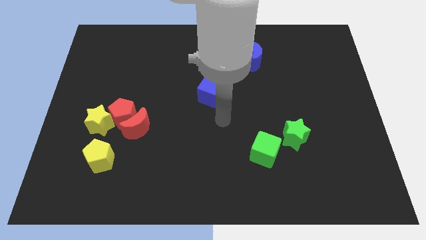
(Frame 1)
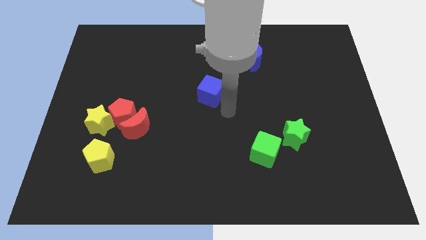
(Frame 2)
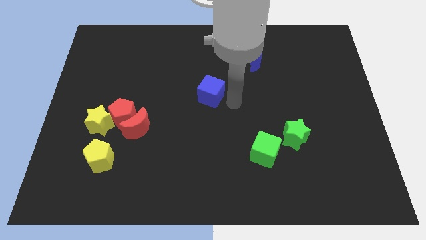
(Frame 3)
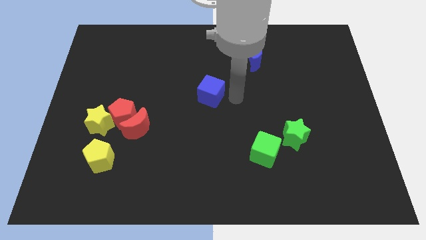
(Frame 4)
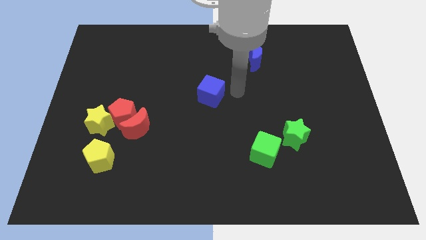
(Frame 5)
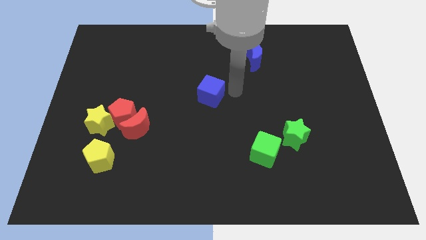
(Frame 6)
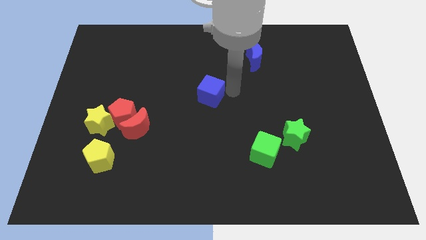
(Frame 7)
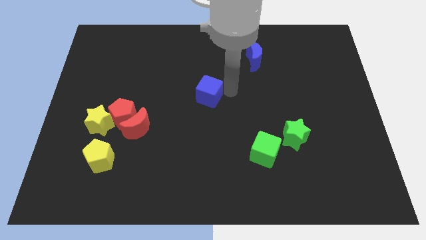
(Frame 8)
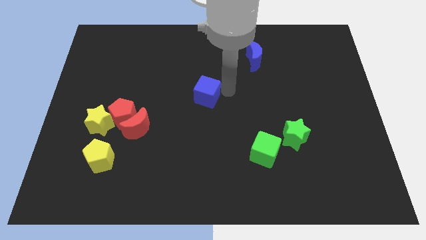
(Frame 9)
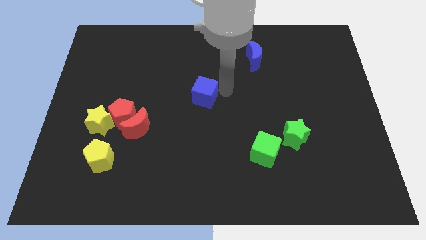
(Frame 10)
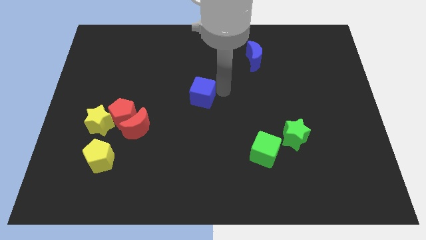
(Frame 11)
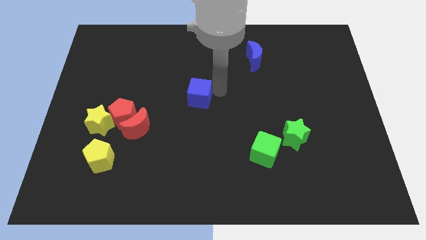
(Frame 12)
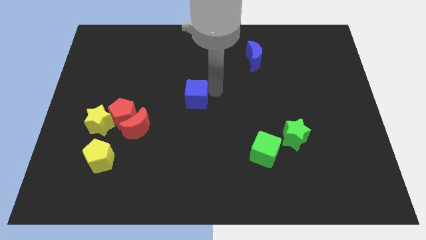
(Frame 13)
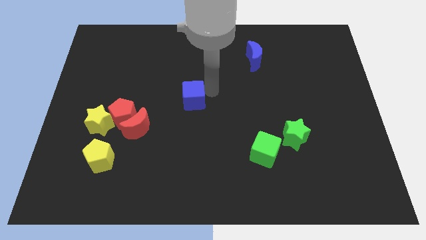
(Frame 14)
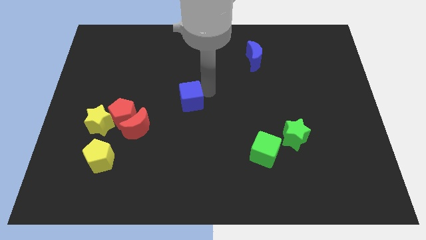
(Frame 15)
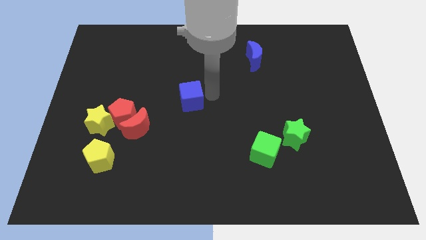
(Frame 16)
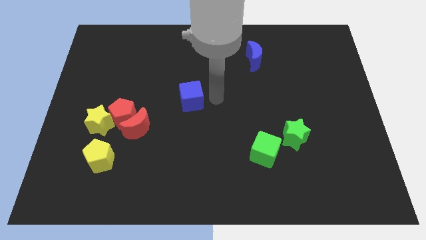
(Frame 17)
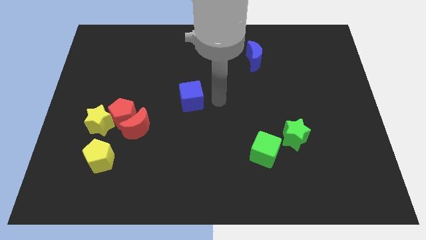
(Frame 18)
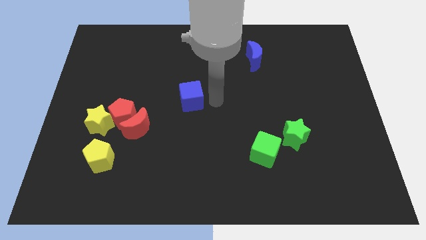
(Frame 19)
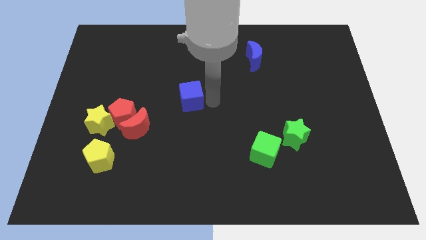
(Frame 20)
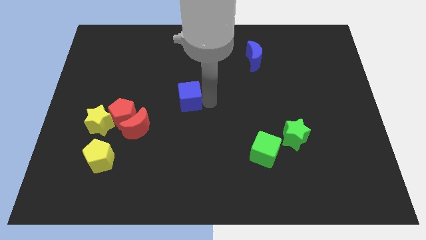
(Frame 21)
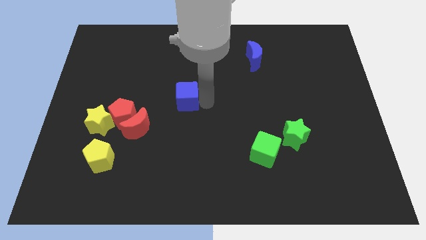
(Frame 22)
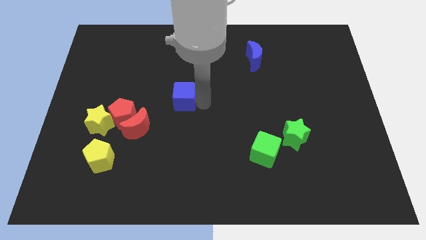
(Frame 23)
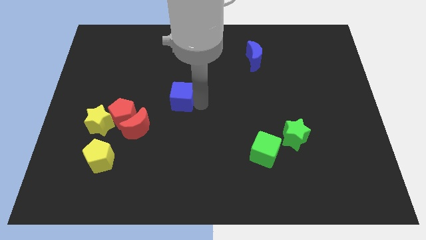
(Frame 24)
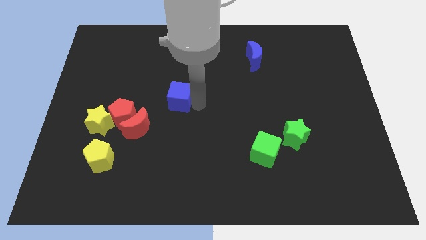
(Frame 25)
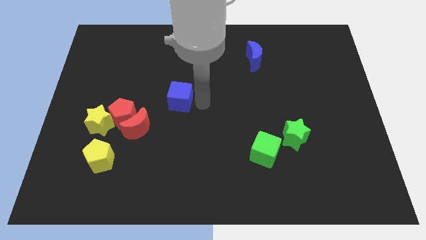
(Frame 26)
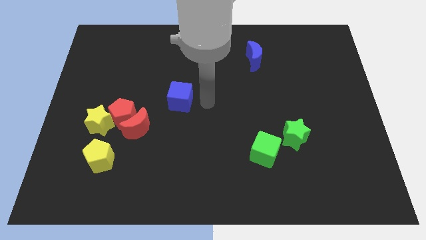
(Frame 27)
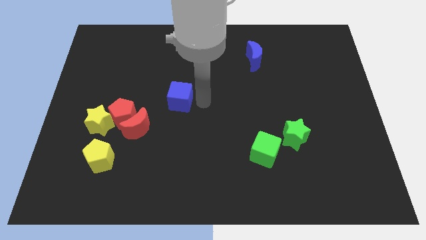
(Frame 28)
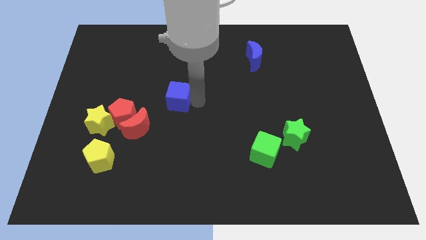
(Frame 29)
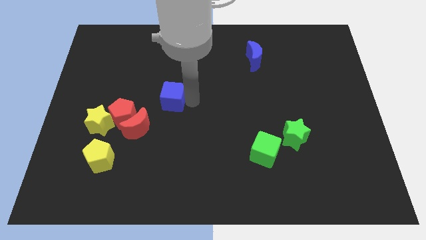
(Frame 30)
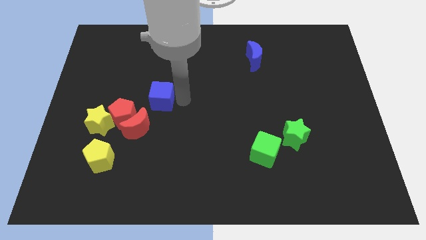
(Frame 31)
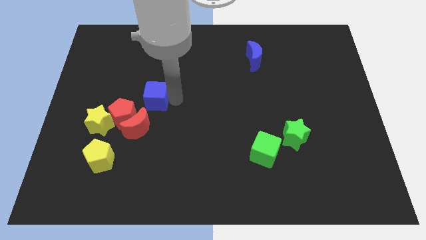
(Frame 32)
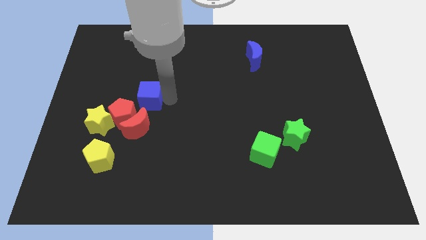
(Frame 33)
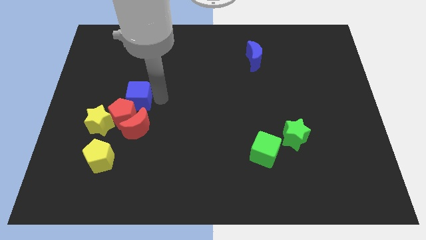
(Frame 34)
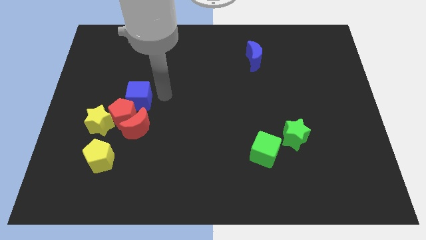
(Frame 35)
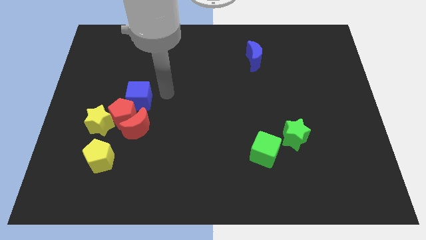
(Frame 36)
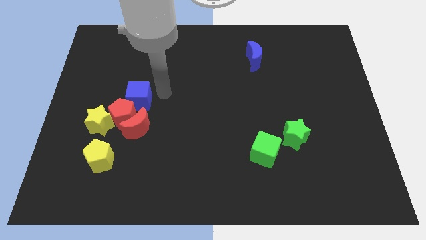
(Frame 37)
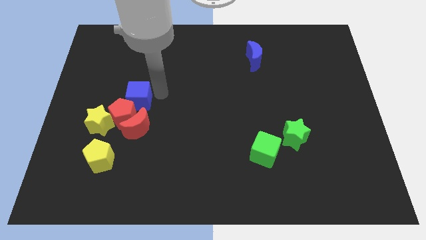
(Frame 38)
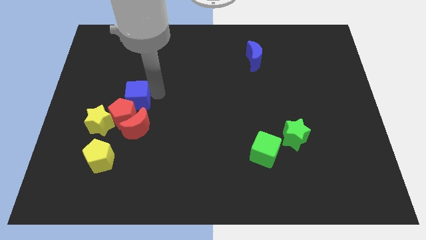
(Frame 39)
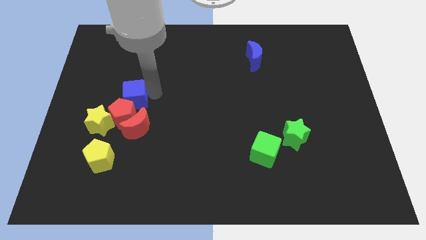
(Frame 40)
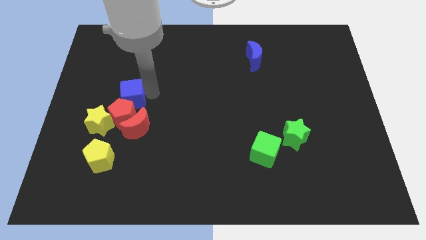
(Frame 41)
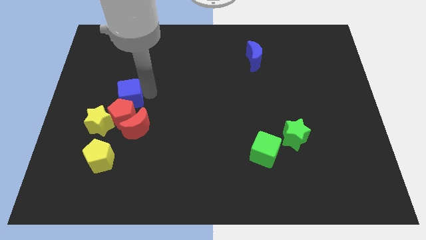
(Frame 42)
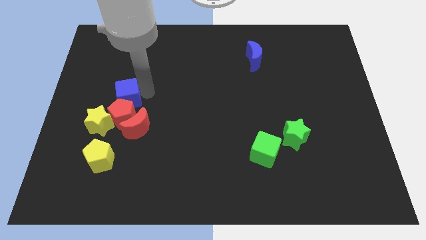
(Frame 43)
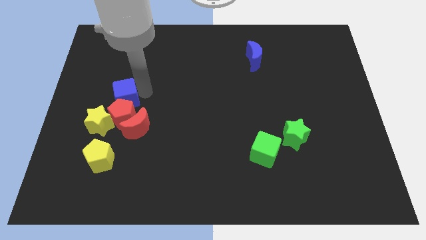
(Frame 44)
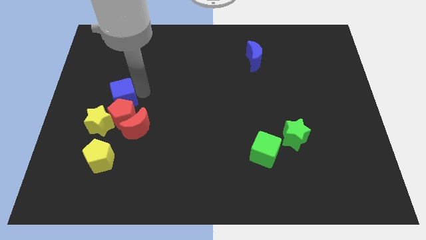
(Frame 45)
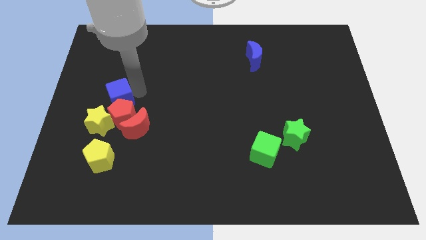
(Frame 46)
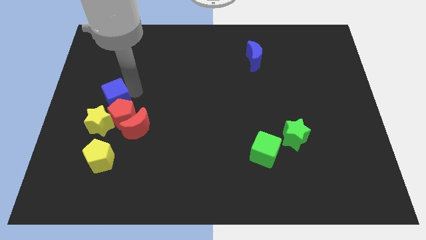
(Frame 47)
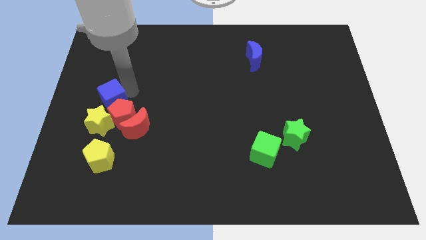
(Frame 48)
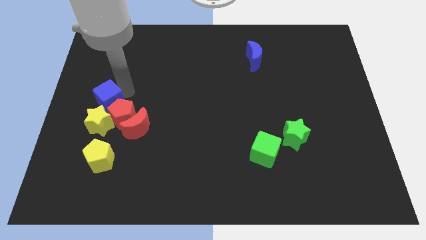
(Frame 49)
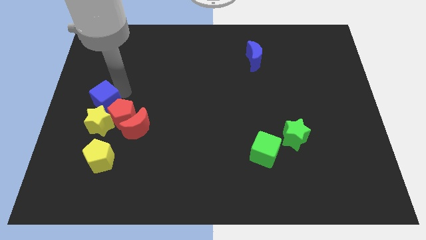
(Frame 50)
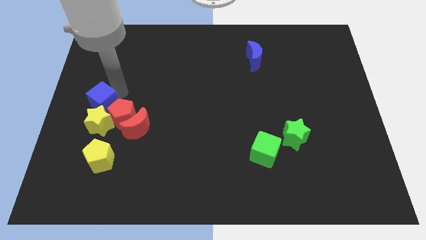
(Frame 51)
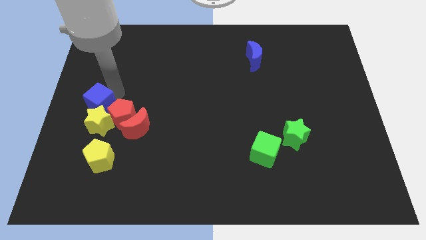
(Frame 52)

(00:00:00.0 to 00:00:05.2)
move the blue cube towards the yellow star

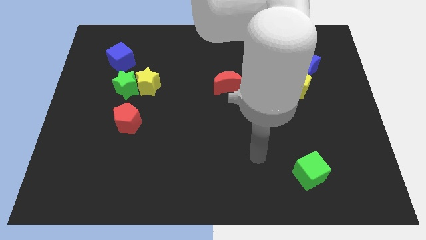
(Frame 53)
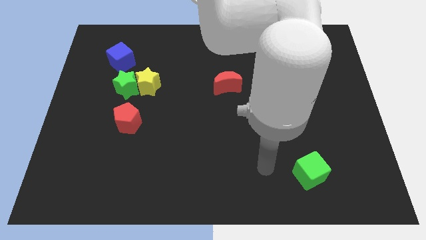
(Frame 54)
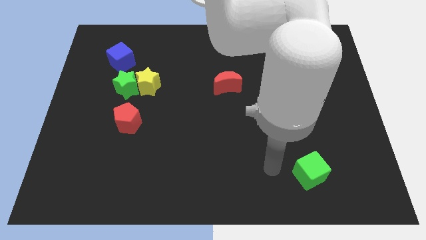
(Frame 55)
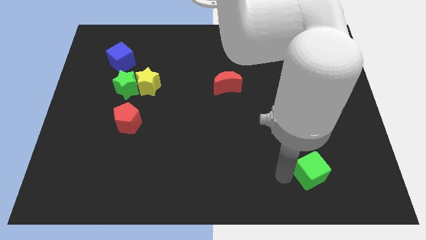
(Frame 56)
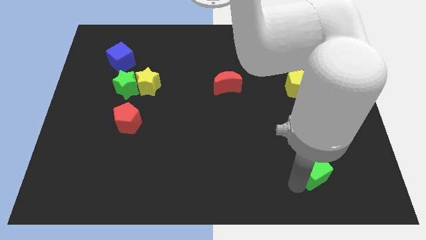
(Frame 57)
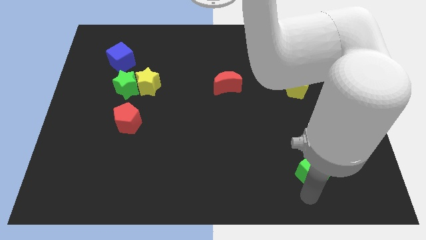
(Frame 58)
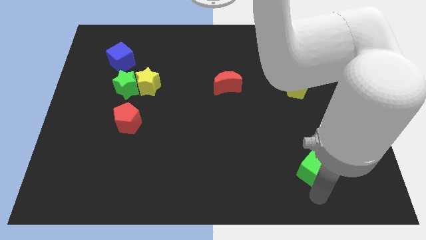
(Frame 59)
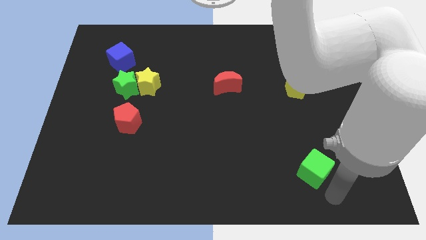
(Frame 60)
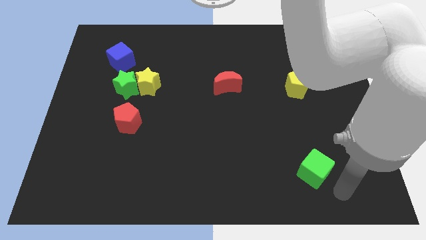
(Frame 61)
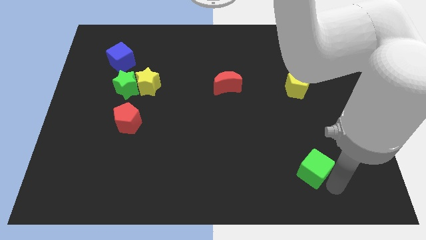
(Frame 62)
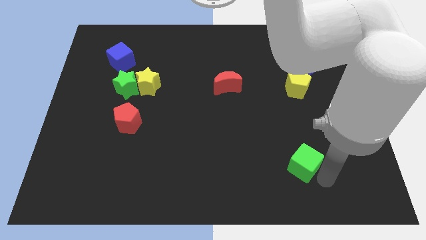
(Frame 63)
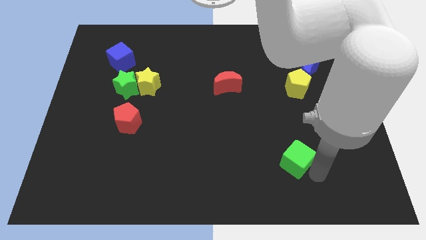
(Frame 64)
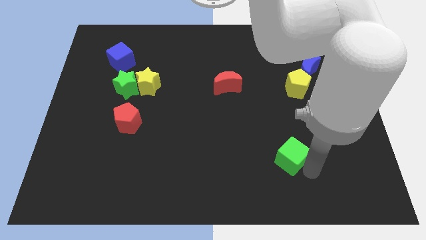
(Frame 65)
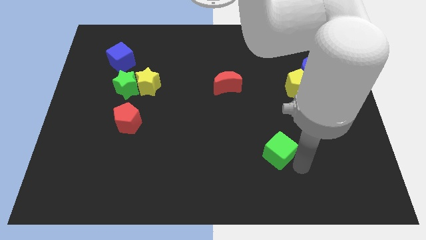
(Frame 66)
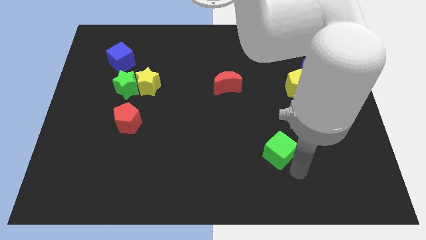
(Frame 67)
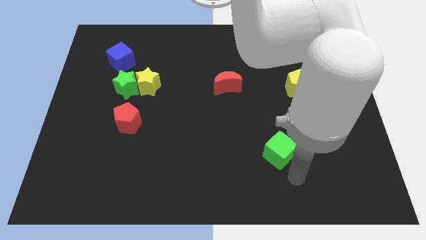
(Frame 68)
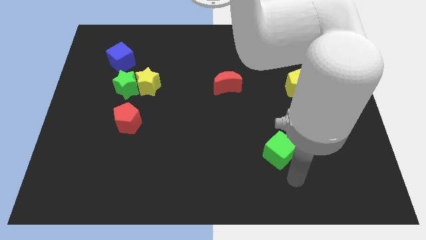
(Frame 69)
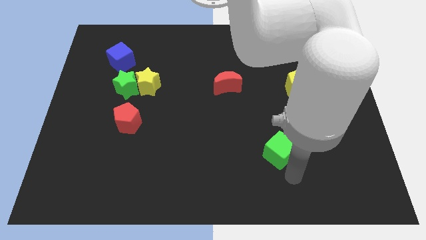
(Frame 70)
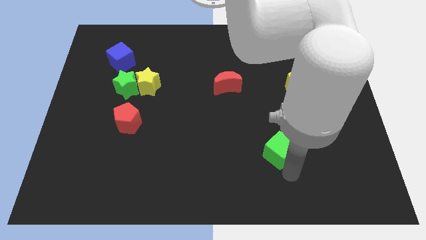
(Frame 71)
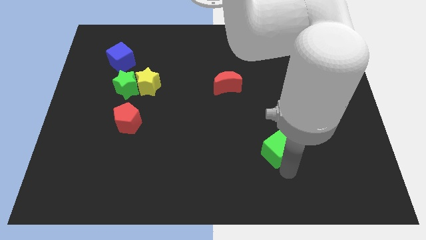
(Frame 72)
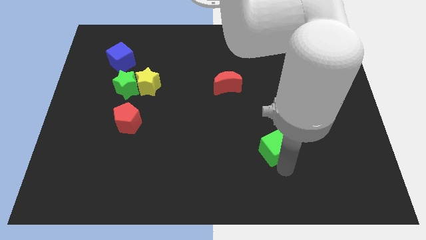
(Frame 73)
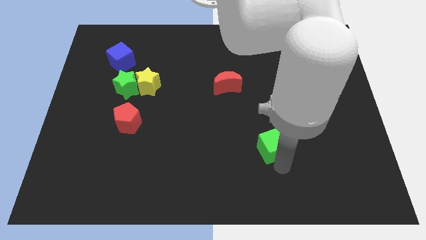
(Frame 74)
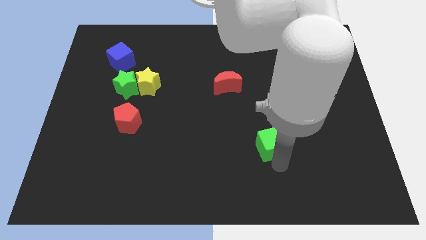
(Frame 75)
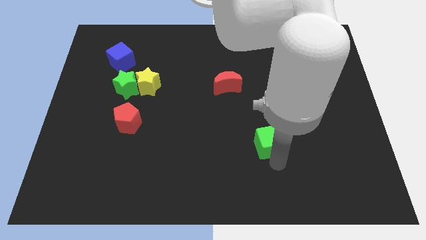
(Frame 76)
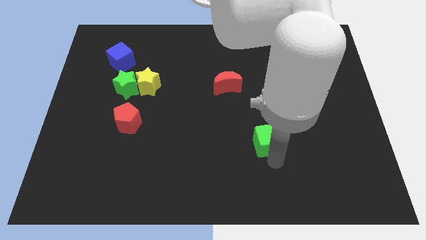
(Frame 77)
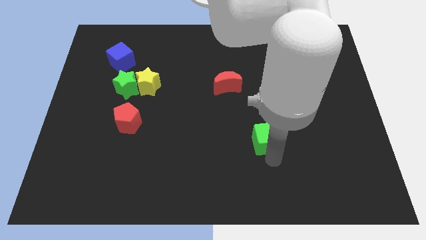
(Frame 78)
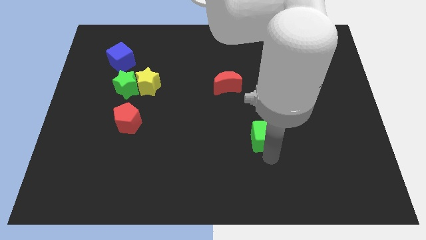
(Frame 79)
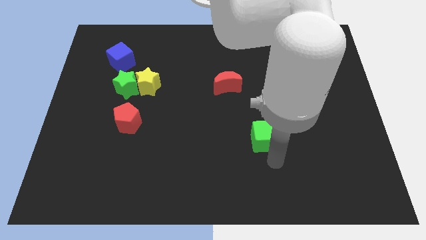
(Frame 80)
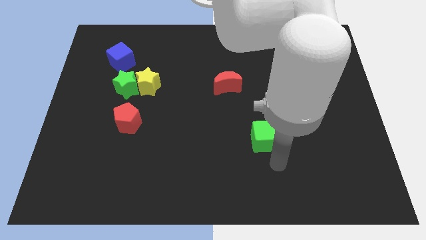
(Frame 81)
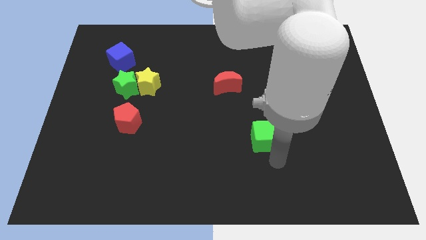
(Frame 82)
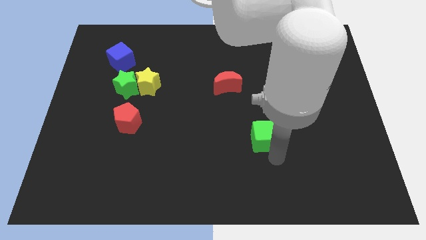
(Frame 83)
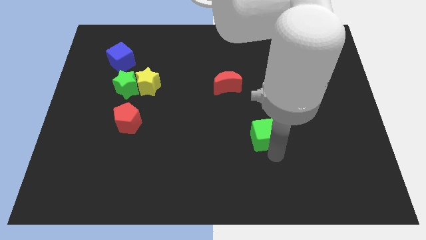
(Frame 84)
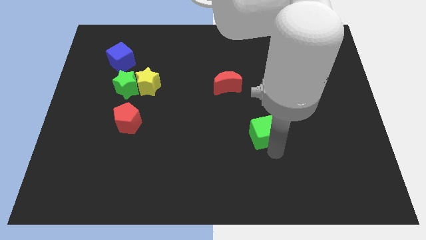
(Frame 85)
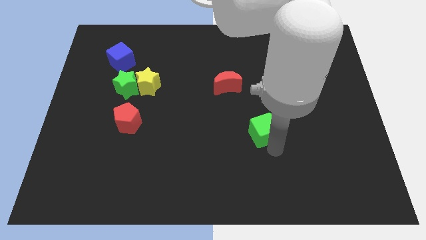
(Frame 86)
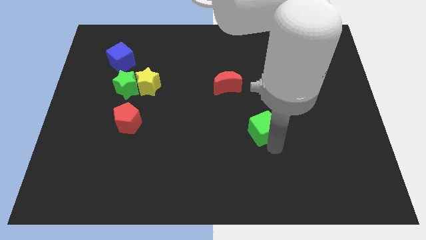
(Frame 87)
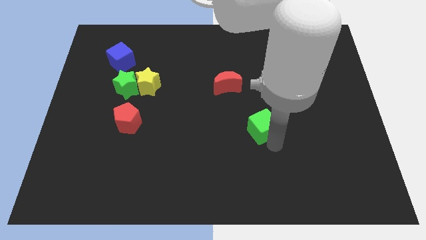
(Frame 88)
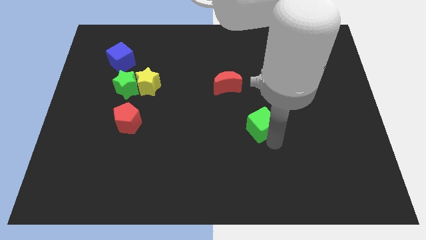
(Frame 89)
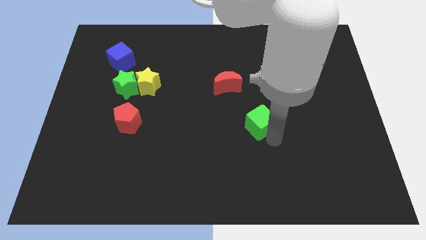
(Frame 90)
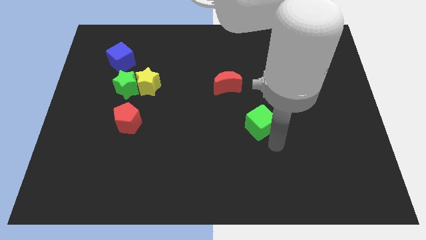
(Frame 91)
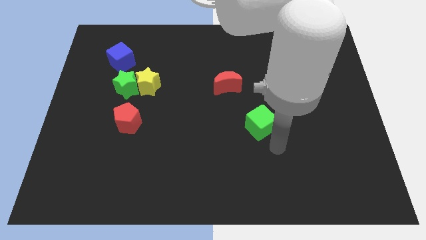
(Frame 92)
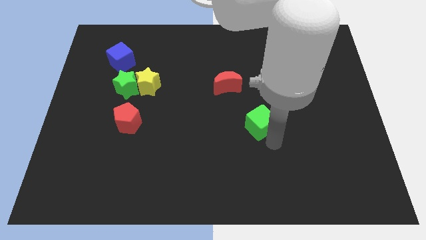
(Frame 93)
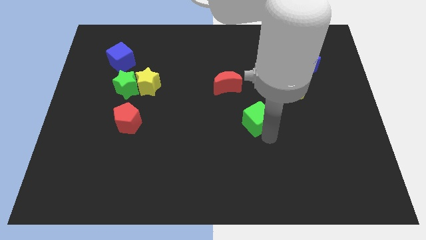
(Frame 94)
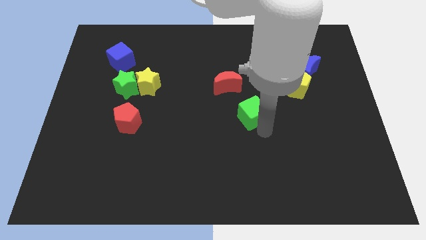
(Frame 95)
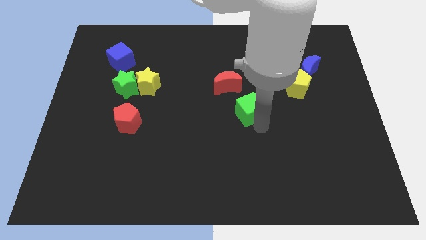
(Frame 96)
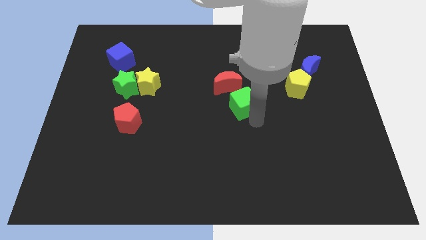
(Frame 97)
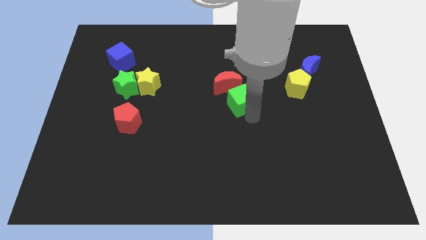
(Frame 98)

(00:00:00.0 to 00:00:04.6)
put the green cube close to the red moon
